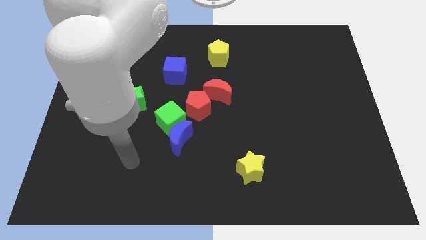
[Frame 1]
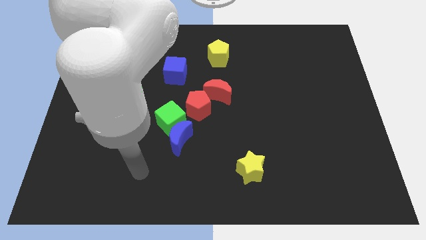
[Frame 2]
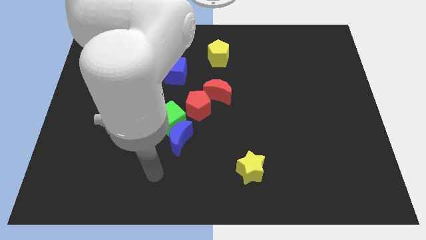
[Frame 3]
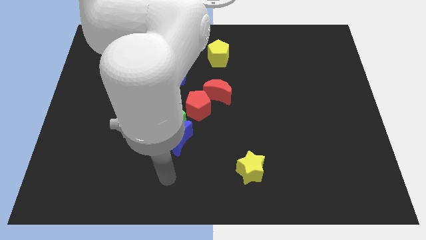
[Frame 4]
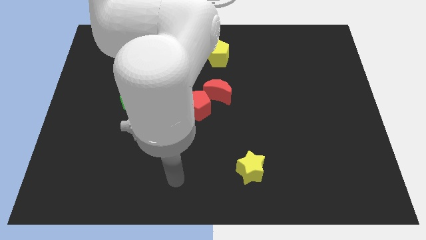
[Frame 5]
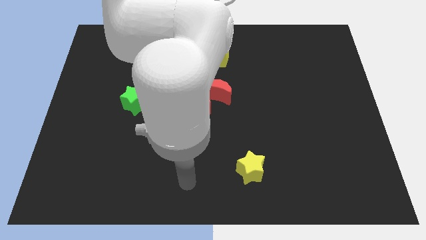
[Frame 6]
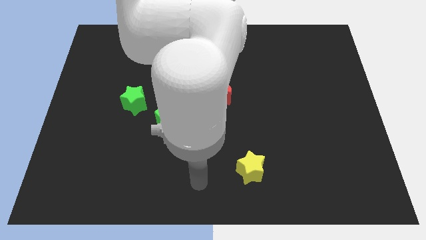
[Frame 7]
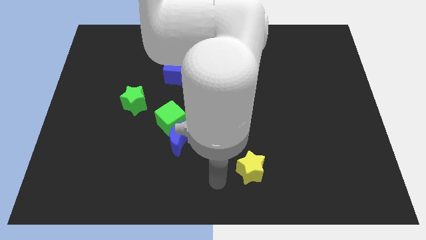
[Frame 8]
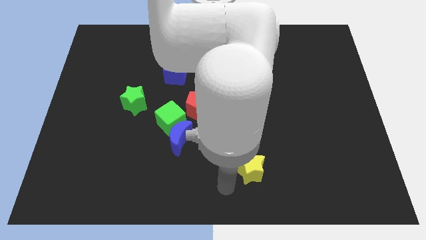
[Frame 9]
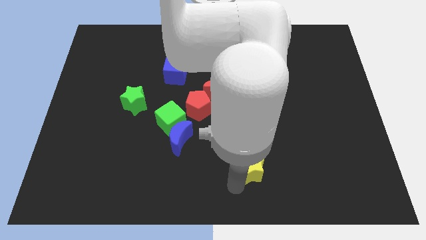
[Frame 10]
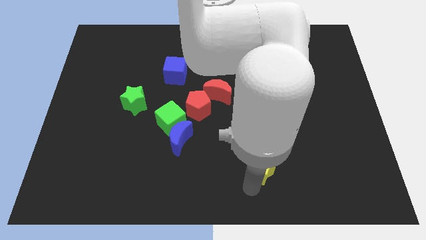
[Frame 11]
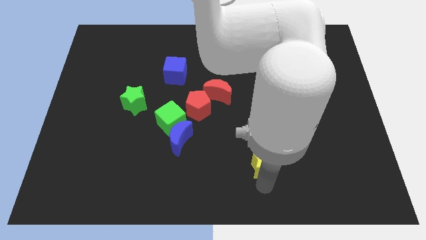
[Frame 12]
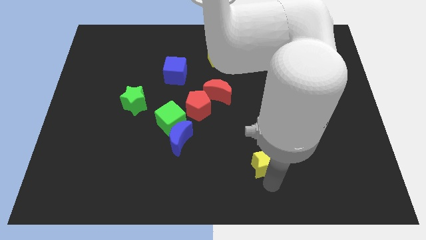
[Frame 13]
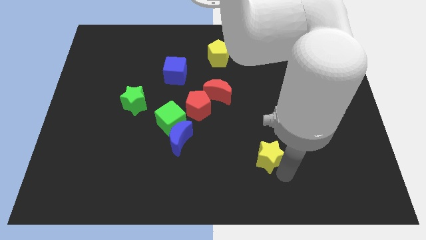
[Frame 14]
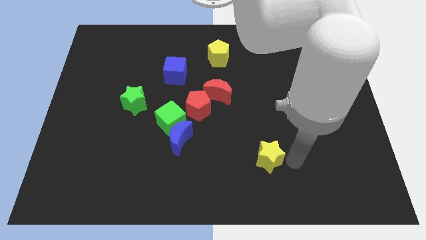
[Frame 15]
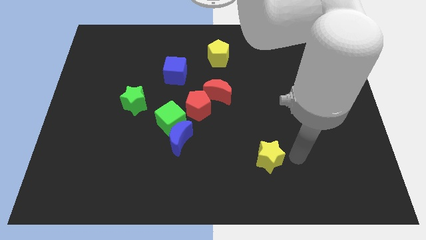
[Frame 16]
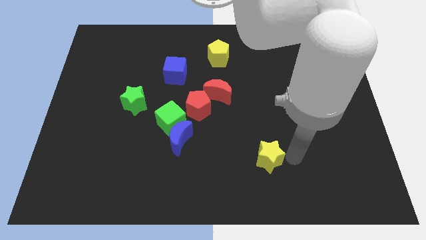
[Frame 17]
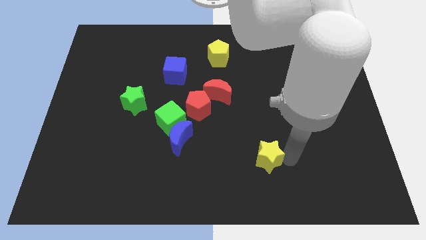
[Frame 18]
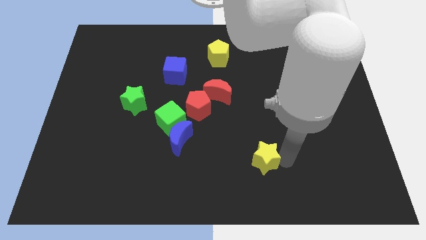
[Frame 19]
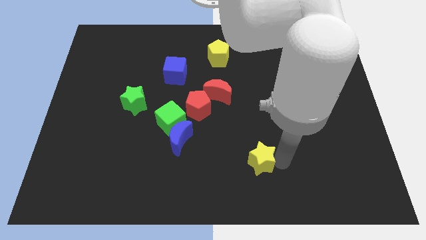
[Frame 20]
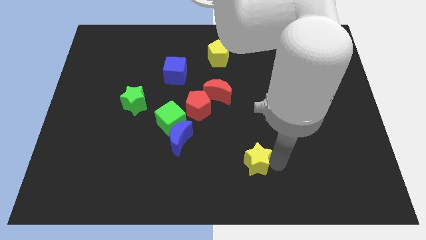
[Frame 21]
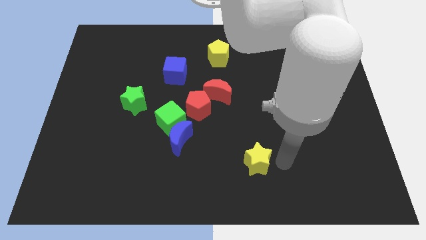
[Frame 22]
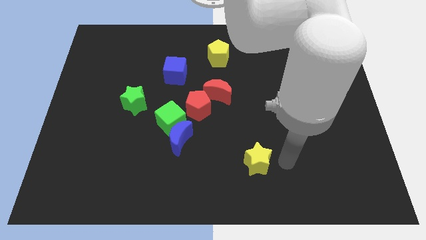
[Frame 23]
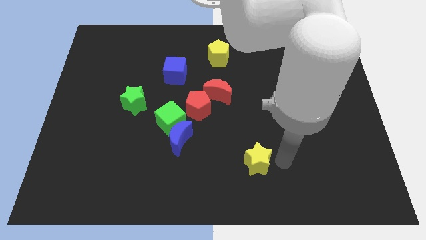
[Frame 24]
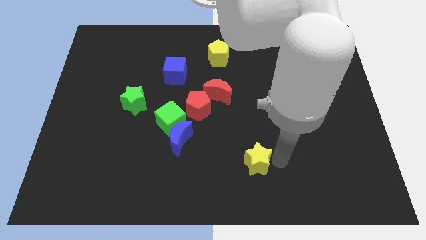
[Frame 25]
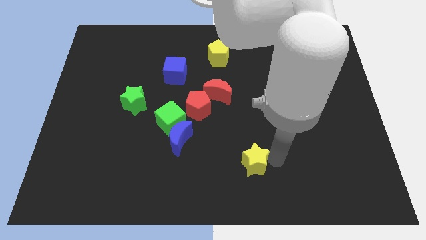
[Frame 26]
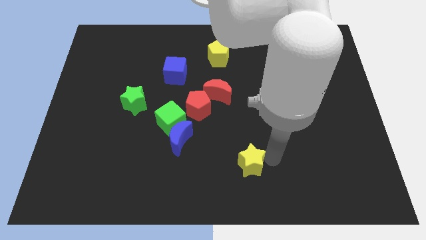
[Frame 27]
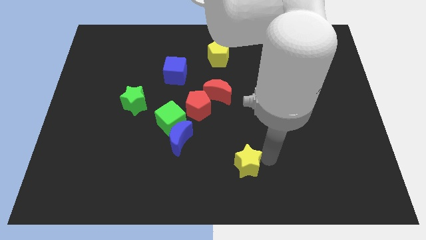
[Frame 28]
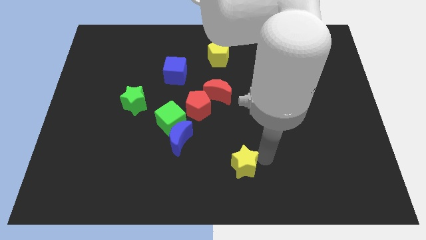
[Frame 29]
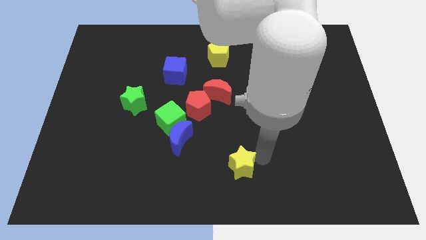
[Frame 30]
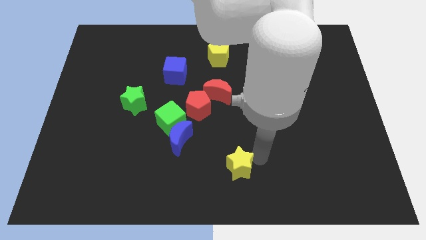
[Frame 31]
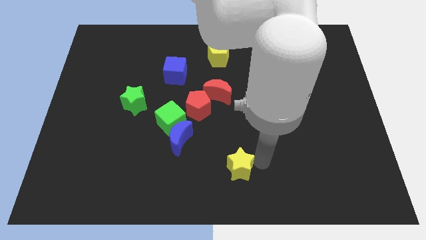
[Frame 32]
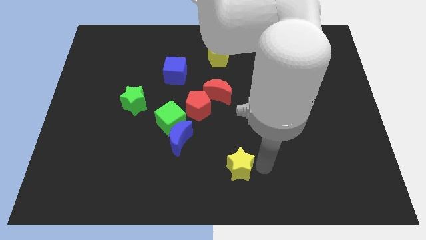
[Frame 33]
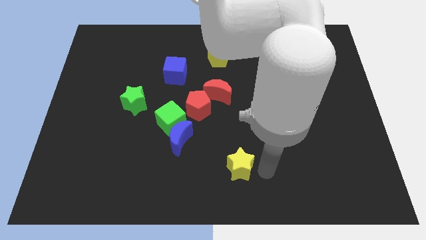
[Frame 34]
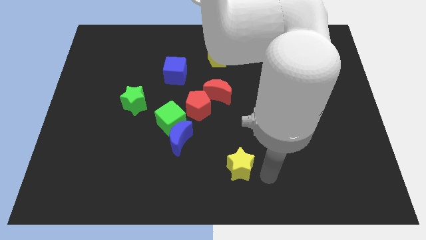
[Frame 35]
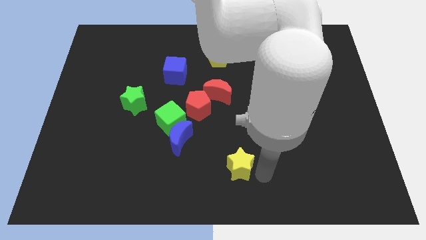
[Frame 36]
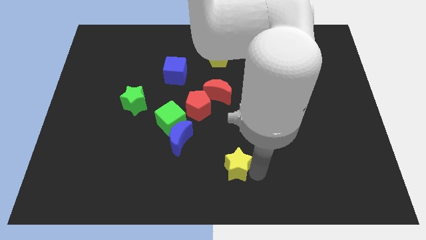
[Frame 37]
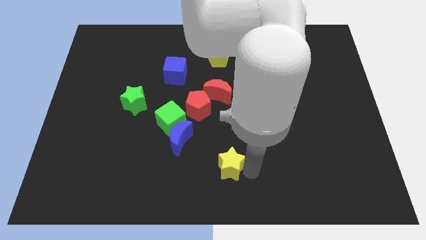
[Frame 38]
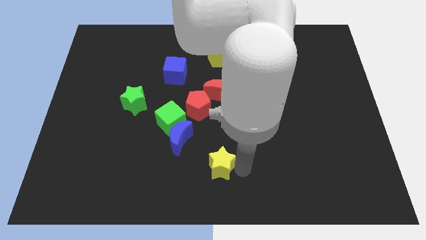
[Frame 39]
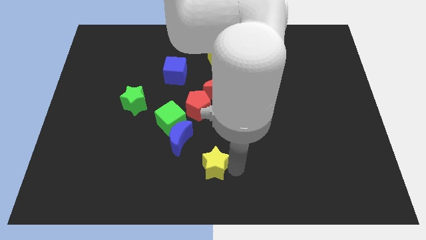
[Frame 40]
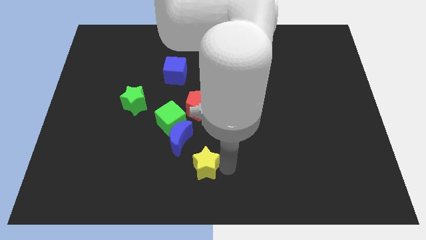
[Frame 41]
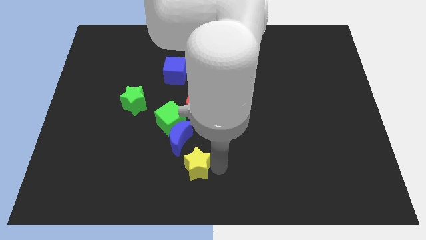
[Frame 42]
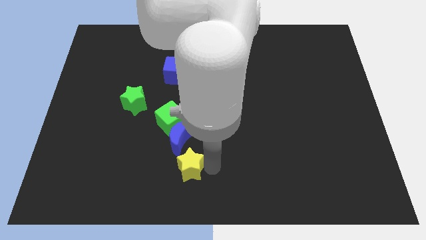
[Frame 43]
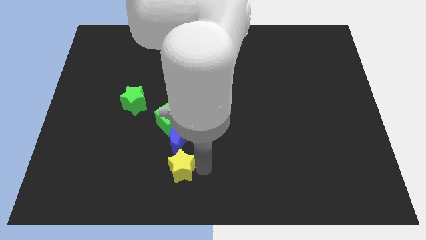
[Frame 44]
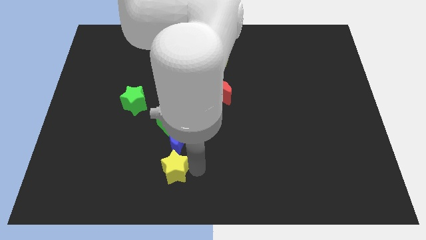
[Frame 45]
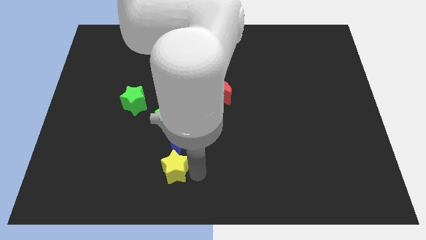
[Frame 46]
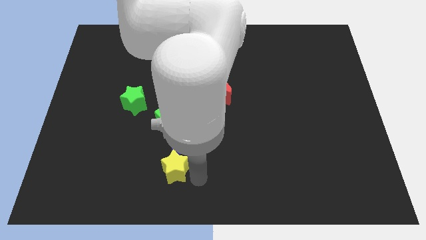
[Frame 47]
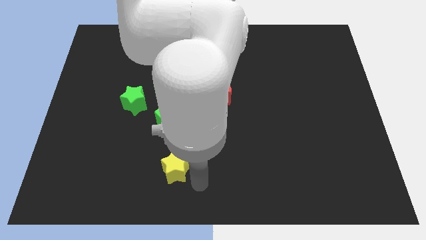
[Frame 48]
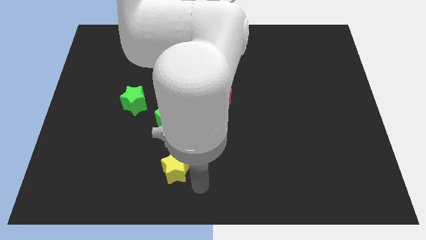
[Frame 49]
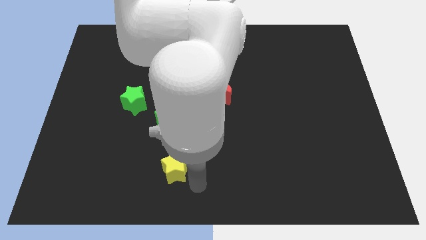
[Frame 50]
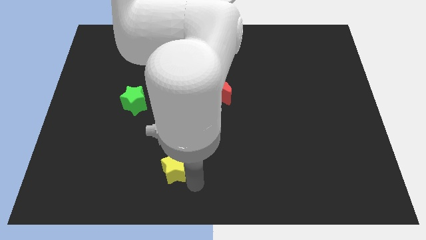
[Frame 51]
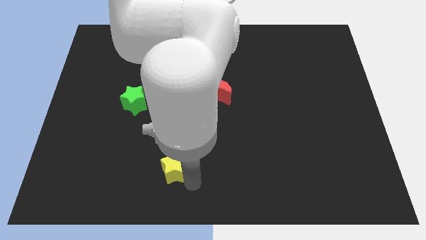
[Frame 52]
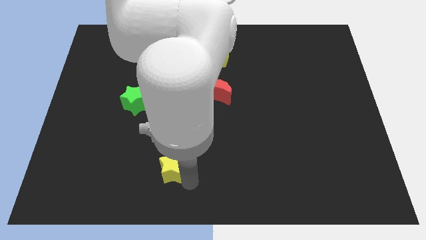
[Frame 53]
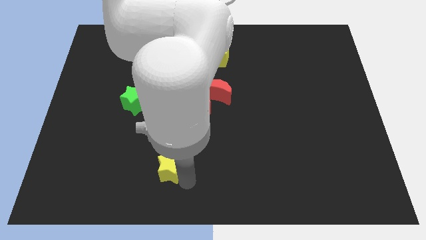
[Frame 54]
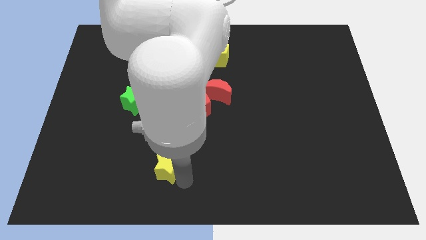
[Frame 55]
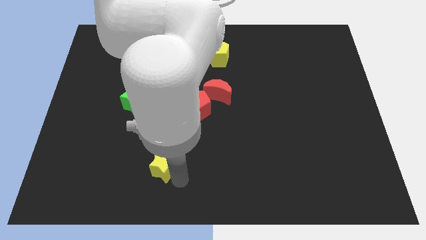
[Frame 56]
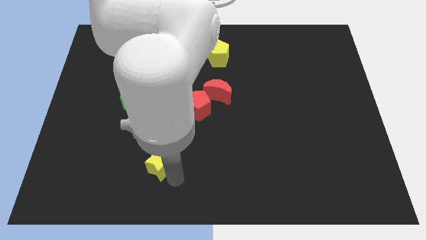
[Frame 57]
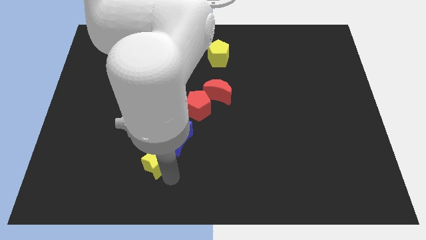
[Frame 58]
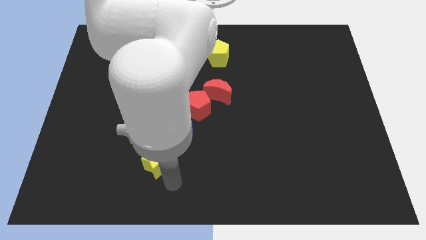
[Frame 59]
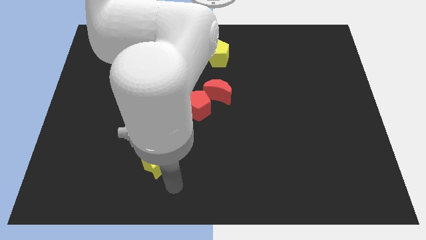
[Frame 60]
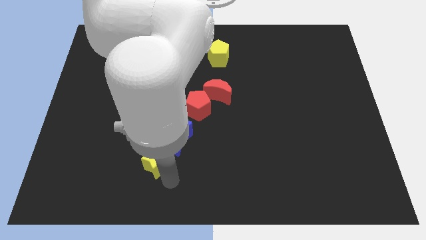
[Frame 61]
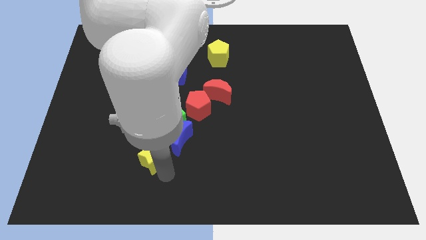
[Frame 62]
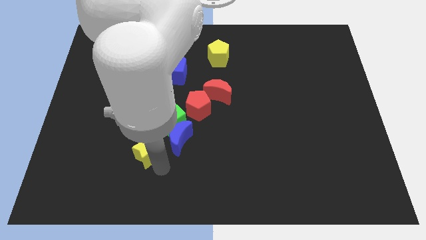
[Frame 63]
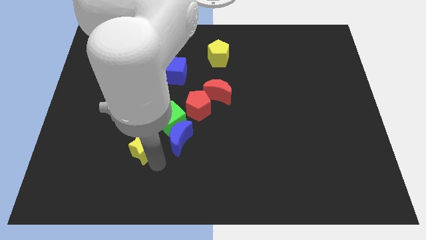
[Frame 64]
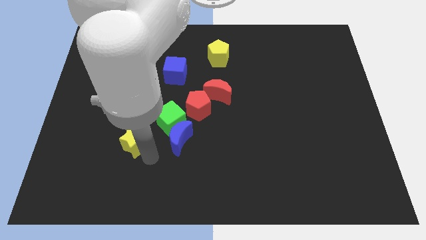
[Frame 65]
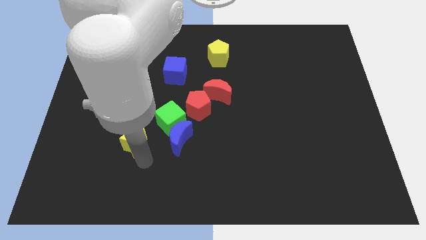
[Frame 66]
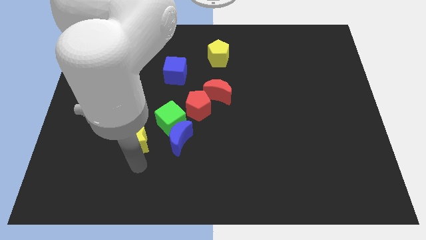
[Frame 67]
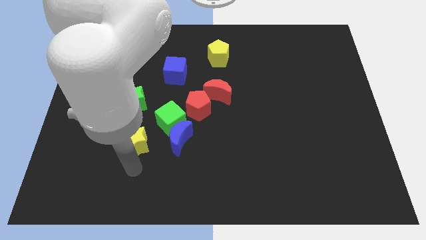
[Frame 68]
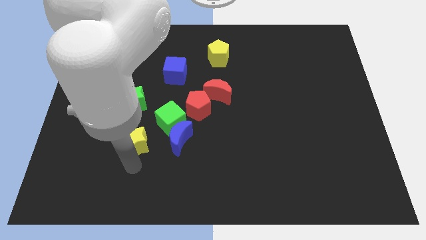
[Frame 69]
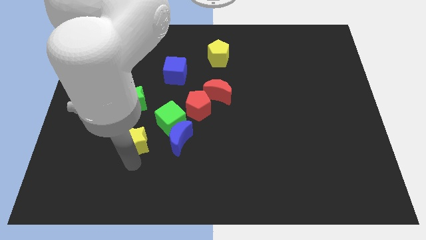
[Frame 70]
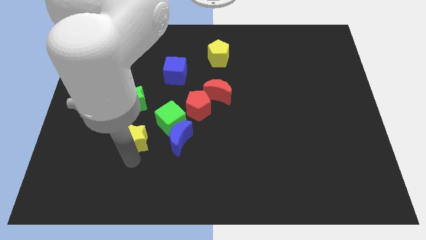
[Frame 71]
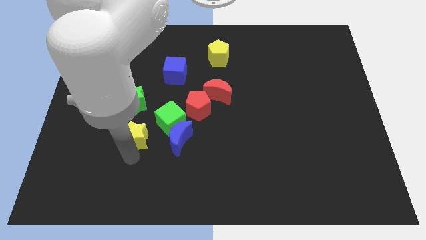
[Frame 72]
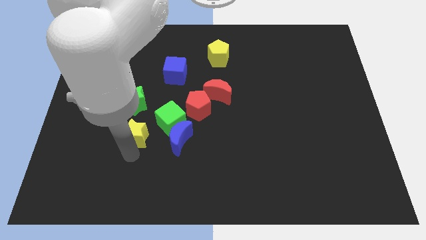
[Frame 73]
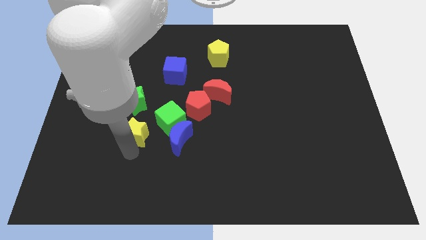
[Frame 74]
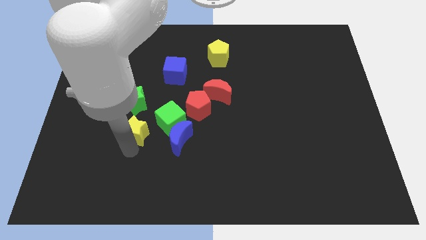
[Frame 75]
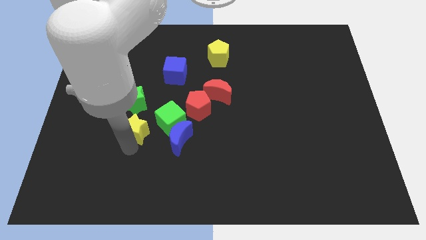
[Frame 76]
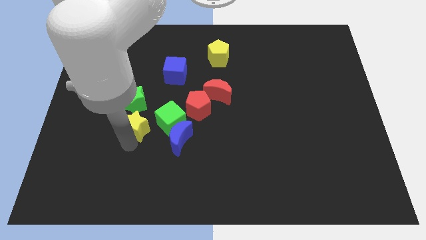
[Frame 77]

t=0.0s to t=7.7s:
move the yellow star up and left

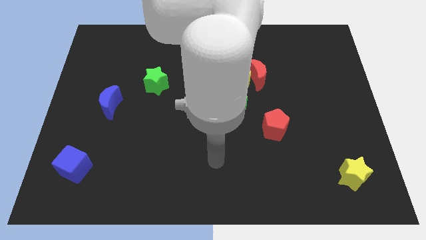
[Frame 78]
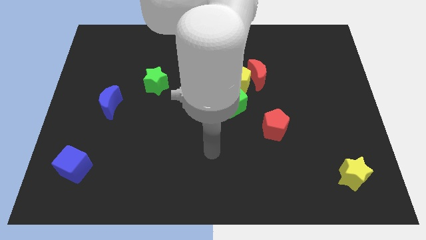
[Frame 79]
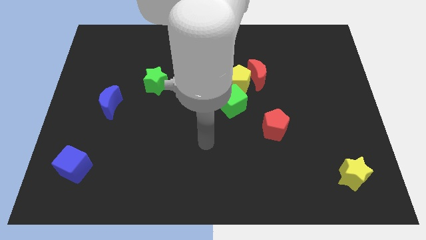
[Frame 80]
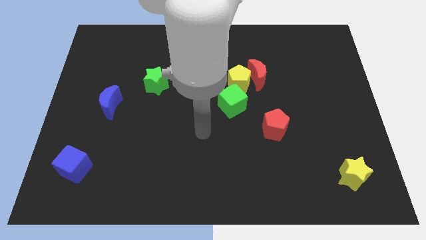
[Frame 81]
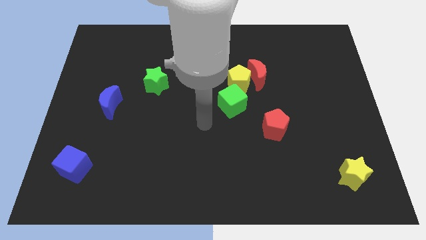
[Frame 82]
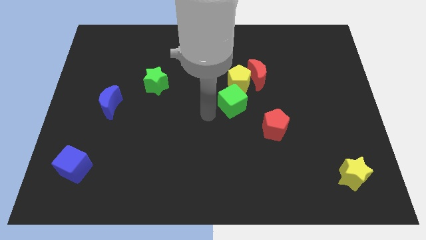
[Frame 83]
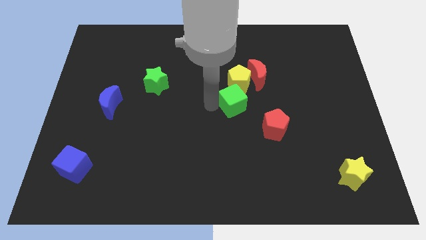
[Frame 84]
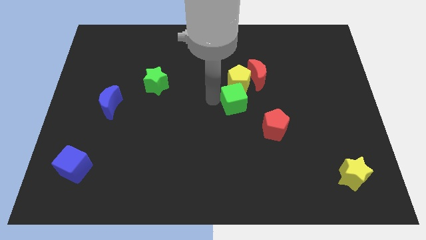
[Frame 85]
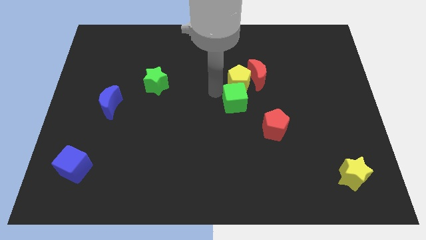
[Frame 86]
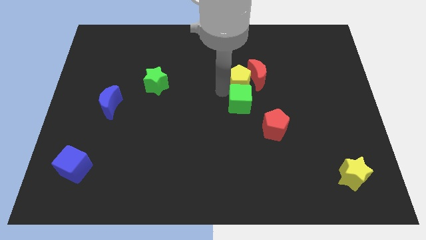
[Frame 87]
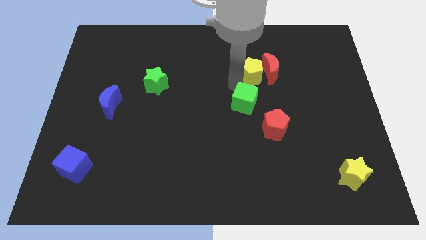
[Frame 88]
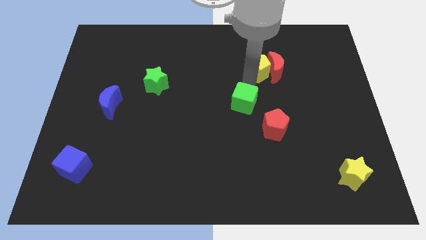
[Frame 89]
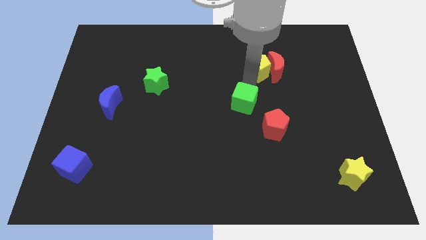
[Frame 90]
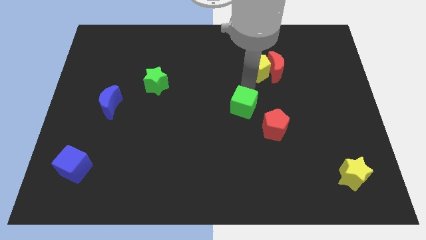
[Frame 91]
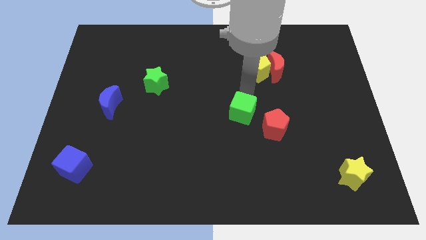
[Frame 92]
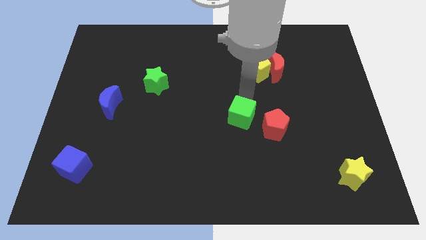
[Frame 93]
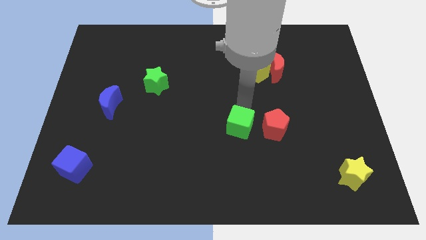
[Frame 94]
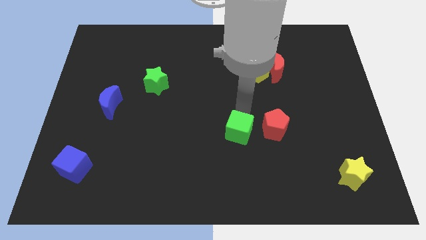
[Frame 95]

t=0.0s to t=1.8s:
slightly move the green cube down
